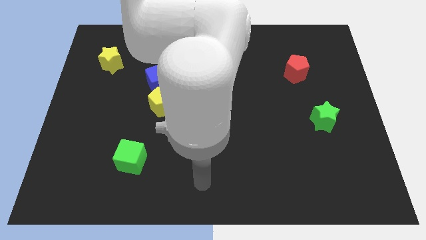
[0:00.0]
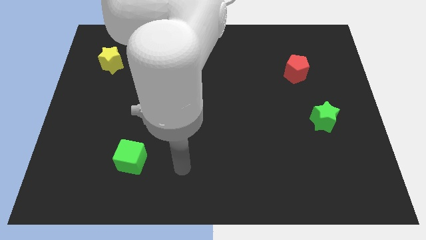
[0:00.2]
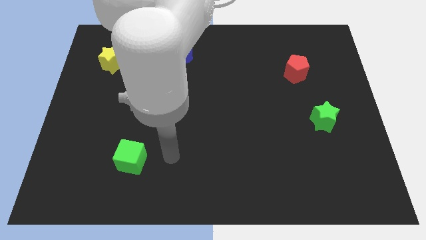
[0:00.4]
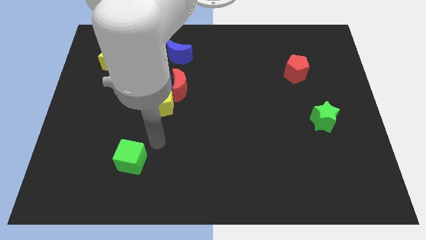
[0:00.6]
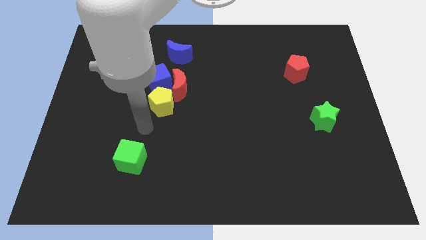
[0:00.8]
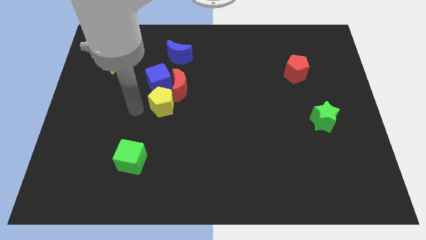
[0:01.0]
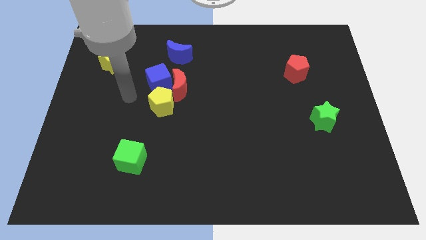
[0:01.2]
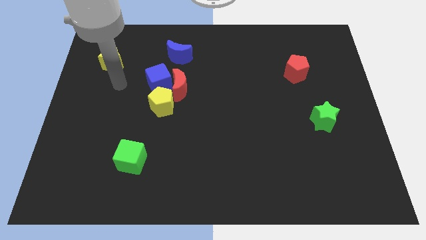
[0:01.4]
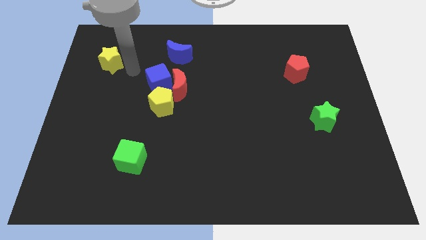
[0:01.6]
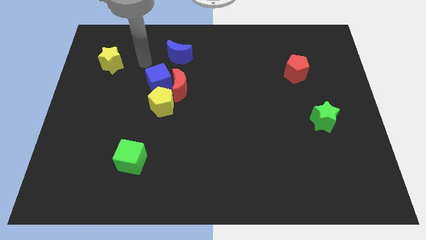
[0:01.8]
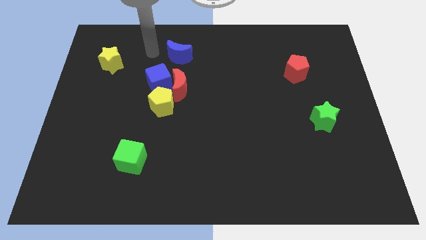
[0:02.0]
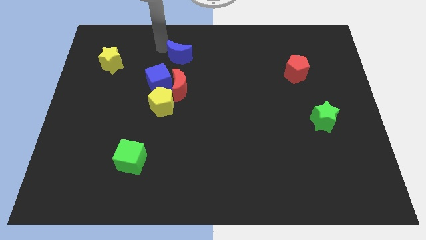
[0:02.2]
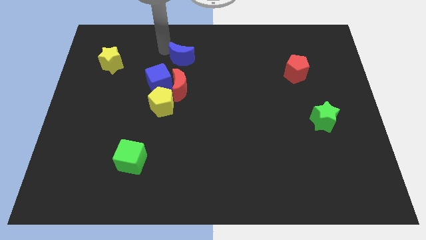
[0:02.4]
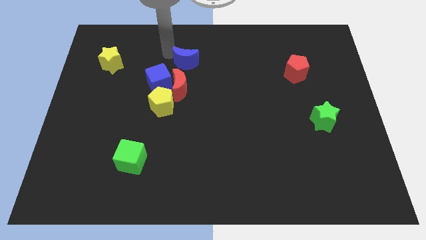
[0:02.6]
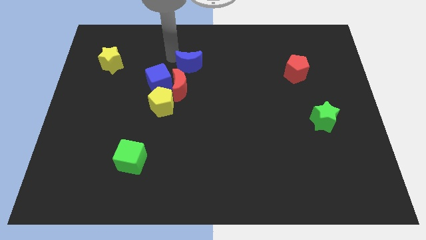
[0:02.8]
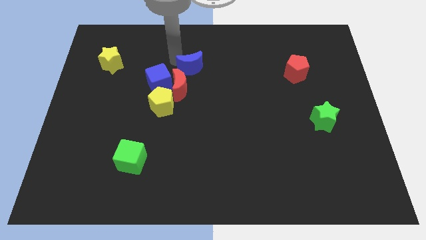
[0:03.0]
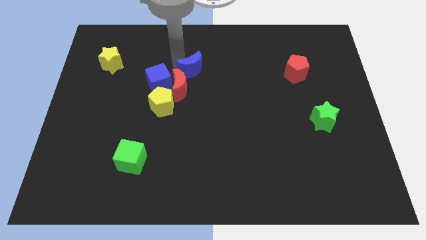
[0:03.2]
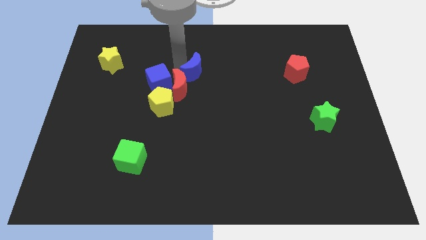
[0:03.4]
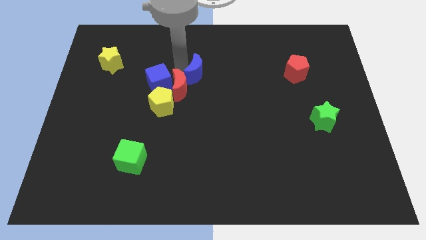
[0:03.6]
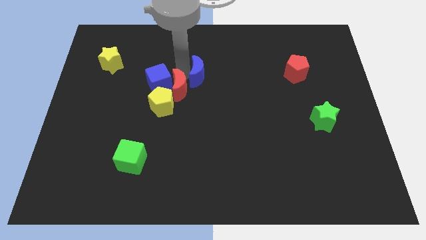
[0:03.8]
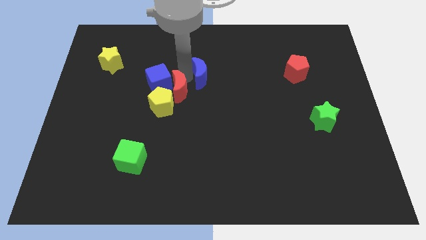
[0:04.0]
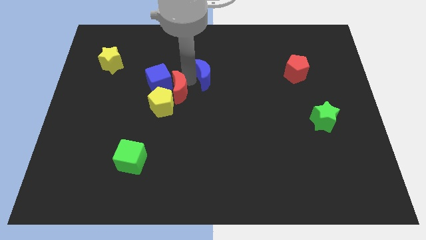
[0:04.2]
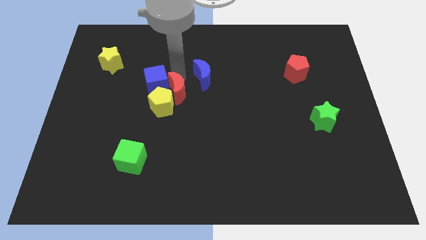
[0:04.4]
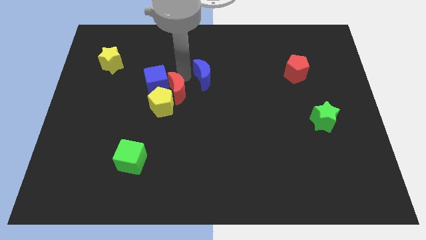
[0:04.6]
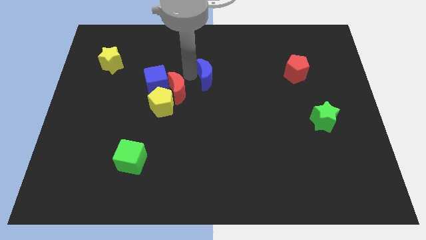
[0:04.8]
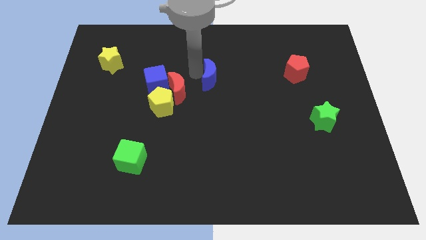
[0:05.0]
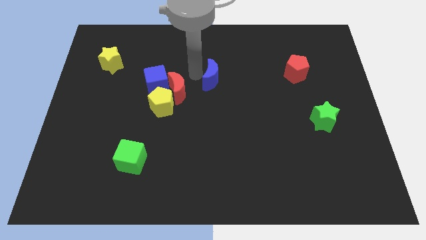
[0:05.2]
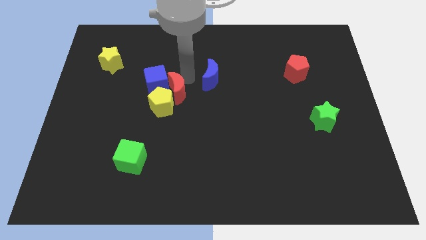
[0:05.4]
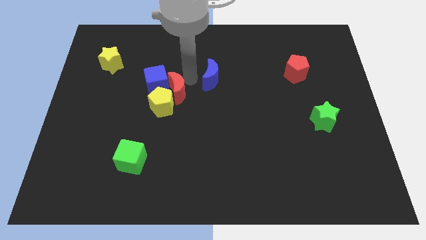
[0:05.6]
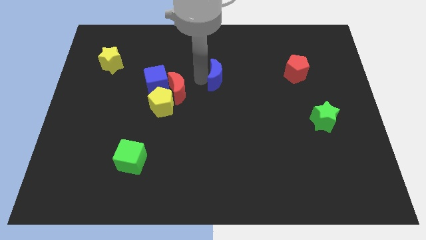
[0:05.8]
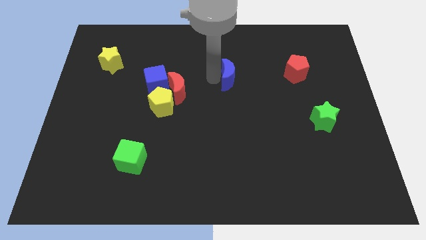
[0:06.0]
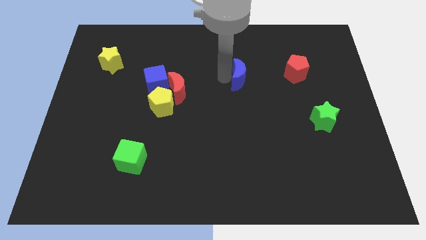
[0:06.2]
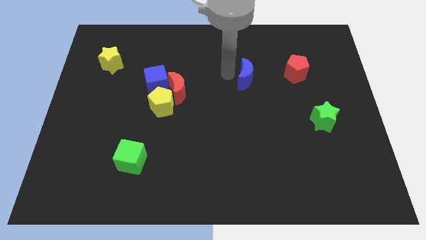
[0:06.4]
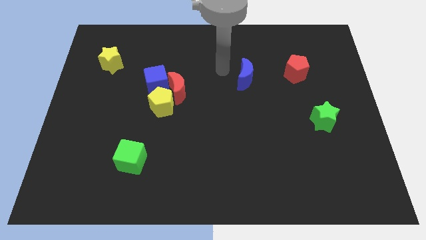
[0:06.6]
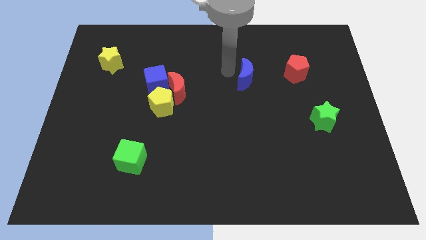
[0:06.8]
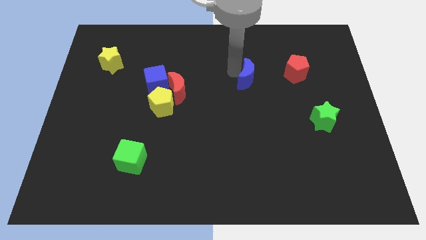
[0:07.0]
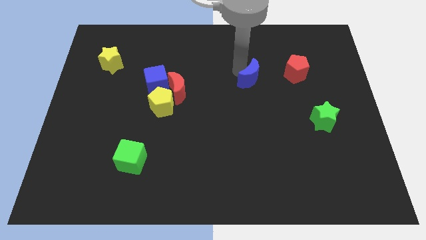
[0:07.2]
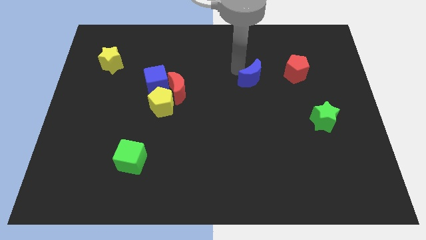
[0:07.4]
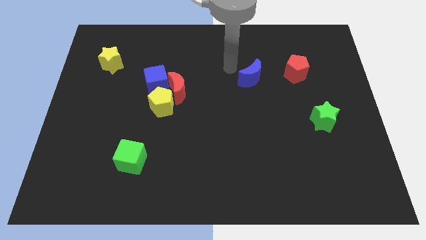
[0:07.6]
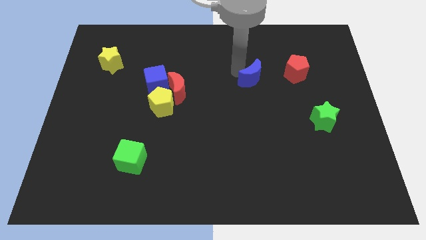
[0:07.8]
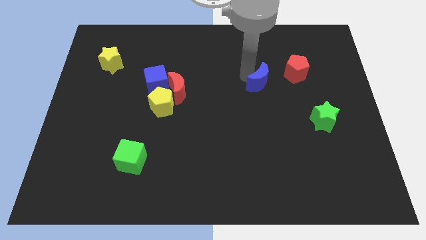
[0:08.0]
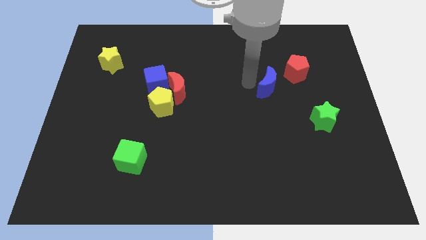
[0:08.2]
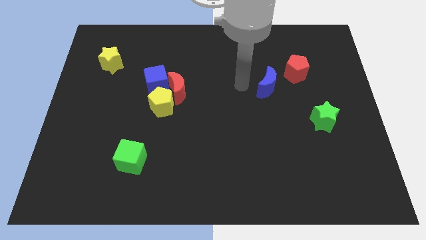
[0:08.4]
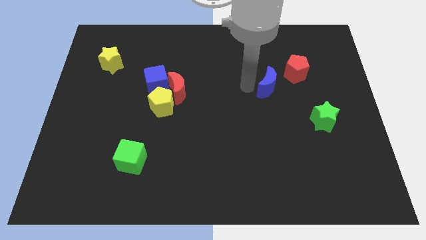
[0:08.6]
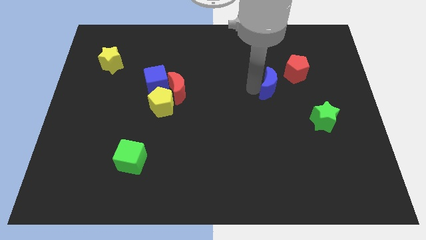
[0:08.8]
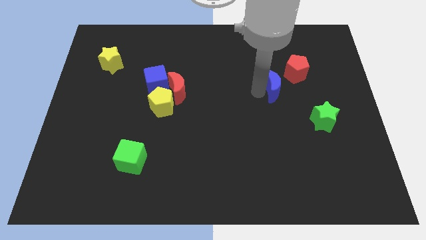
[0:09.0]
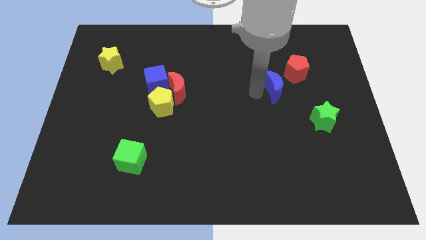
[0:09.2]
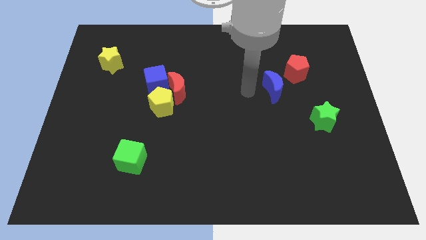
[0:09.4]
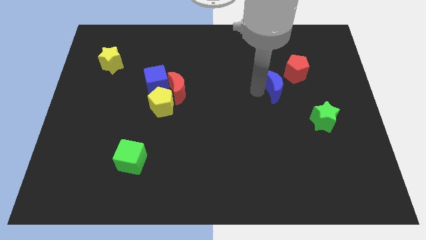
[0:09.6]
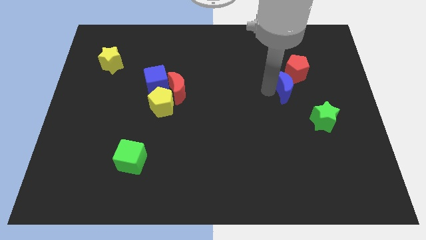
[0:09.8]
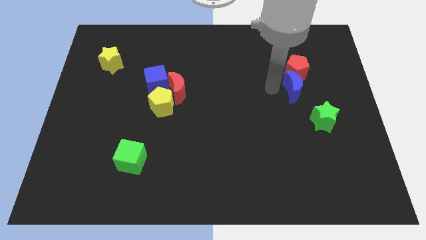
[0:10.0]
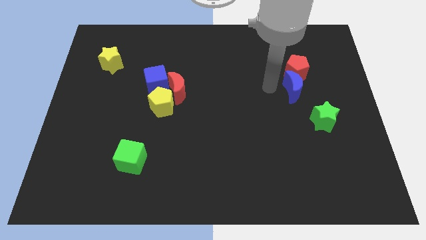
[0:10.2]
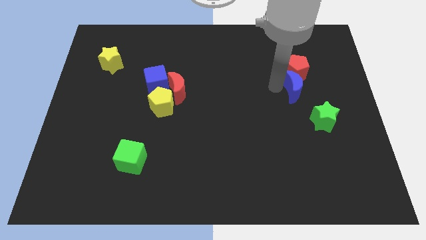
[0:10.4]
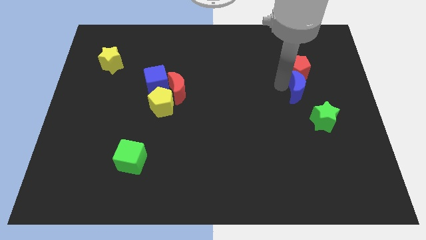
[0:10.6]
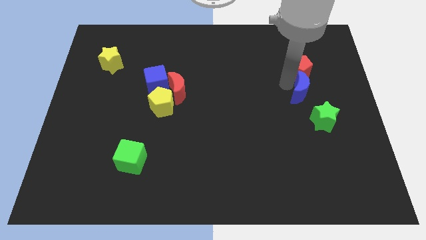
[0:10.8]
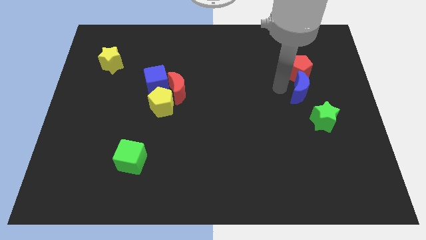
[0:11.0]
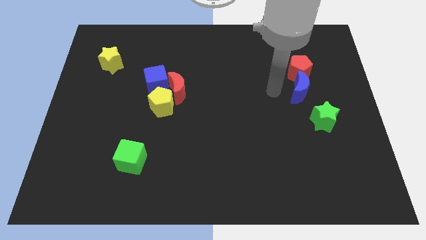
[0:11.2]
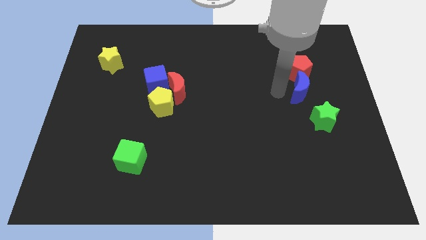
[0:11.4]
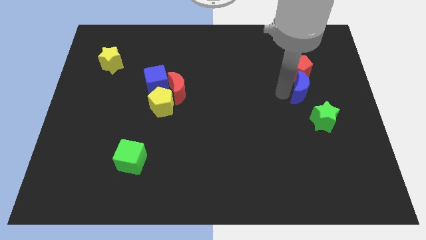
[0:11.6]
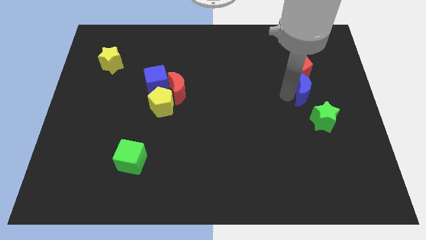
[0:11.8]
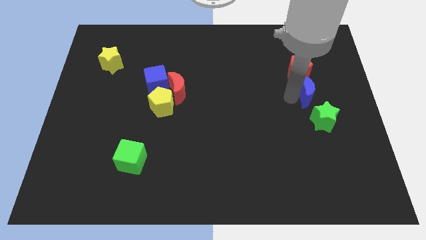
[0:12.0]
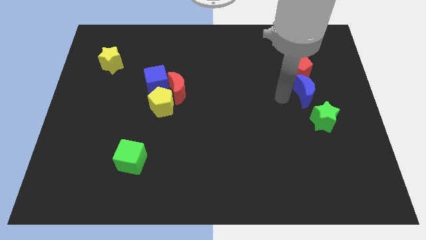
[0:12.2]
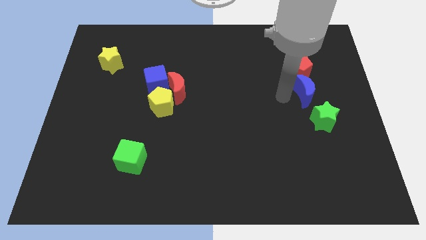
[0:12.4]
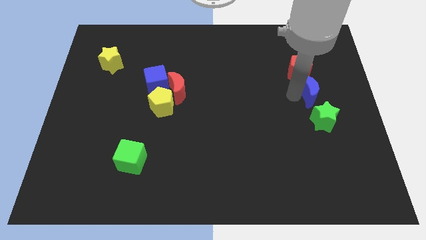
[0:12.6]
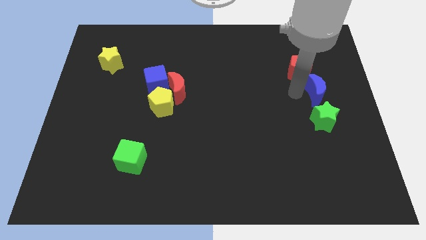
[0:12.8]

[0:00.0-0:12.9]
slide the blue moon to the center right
